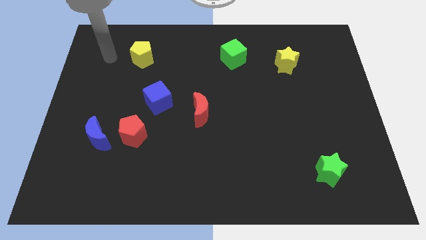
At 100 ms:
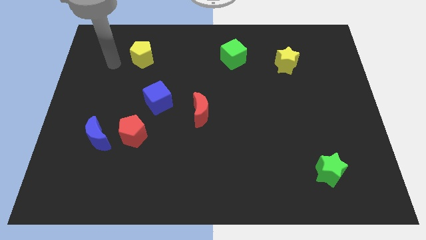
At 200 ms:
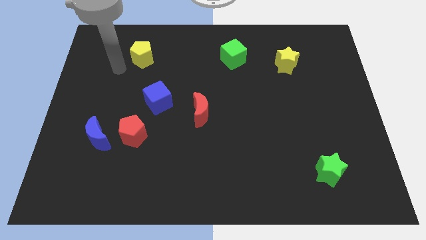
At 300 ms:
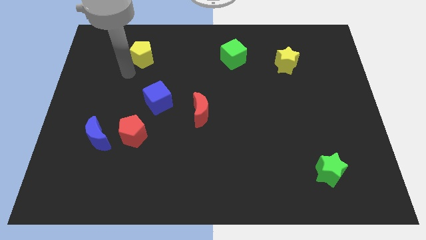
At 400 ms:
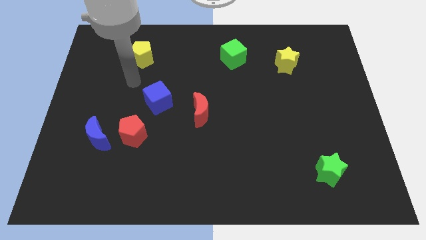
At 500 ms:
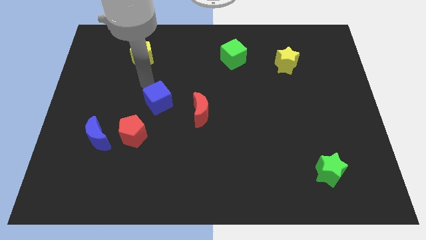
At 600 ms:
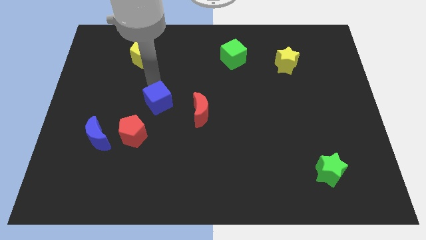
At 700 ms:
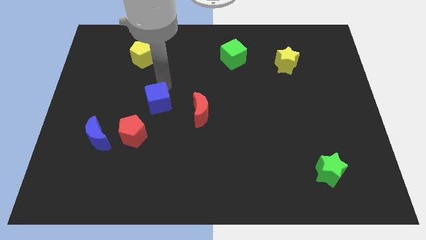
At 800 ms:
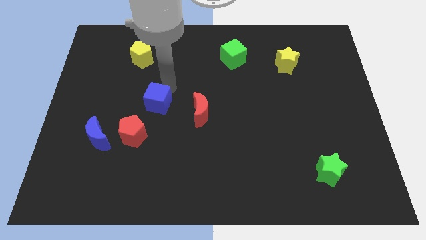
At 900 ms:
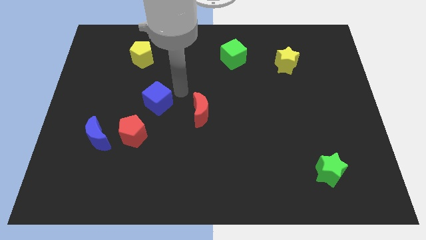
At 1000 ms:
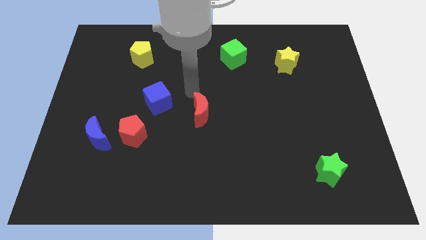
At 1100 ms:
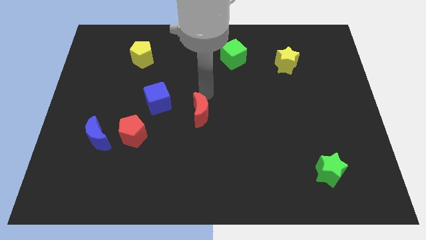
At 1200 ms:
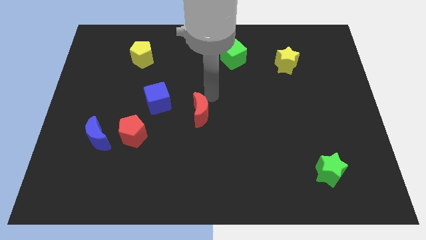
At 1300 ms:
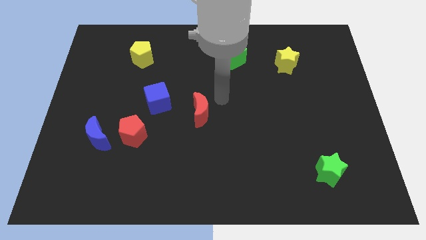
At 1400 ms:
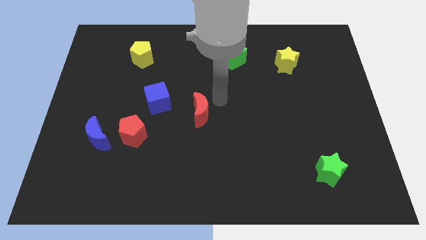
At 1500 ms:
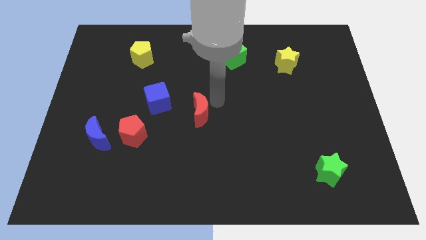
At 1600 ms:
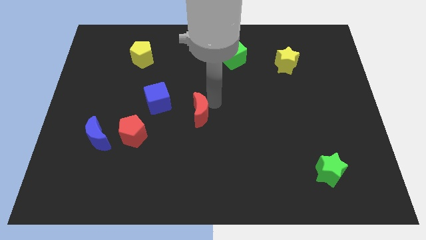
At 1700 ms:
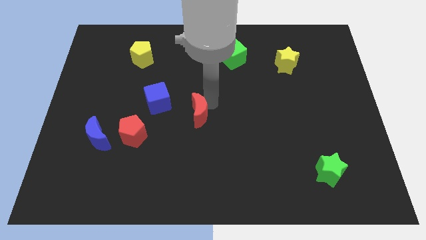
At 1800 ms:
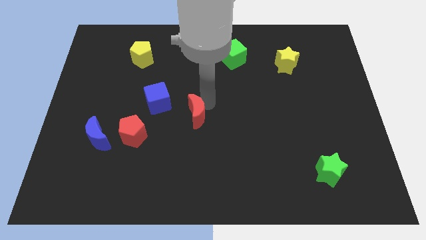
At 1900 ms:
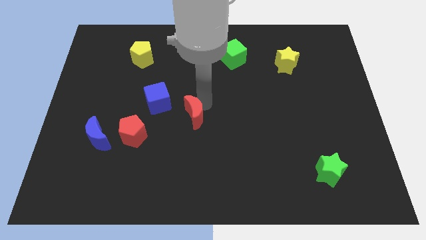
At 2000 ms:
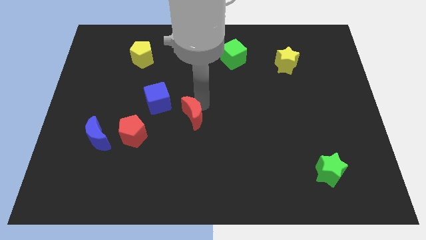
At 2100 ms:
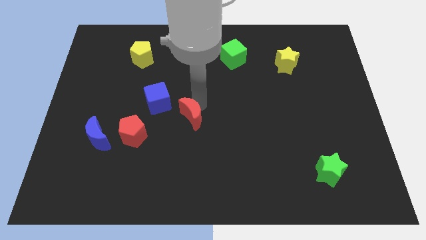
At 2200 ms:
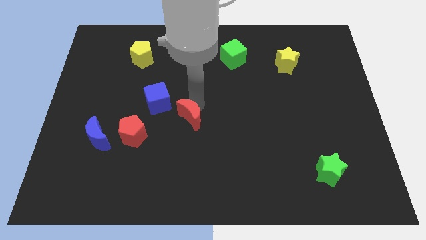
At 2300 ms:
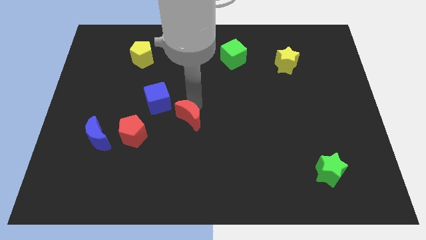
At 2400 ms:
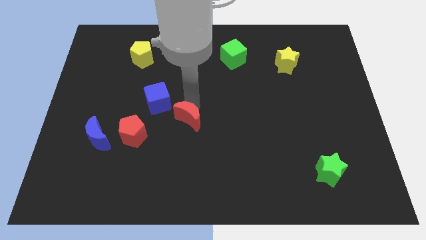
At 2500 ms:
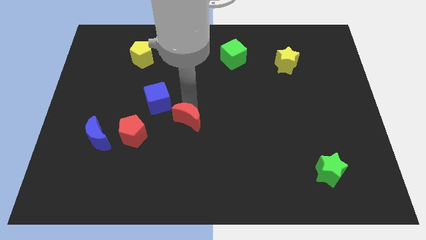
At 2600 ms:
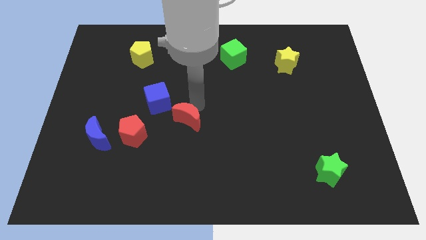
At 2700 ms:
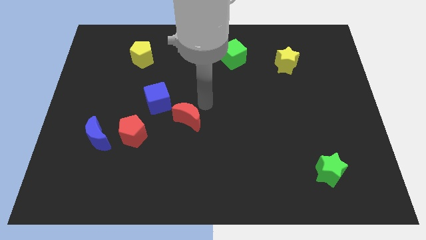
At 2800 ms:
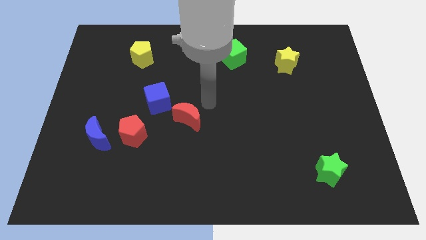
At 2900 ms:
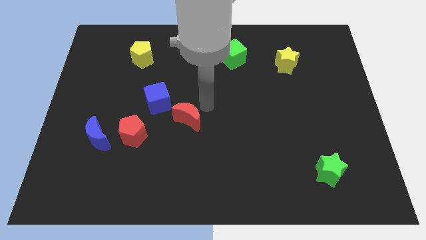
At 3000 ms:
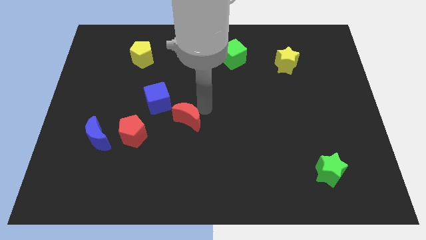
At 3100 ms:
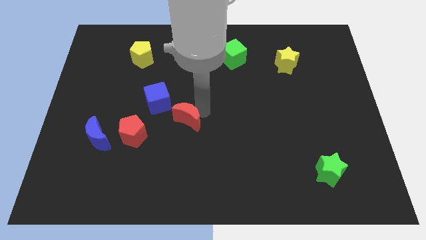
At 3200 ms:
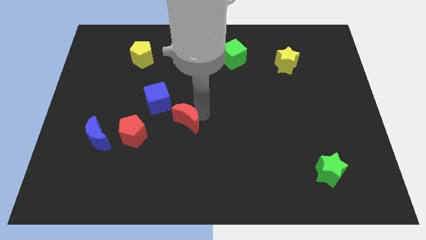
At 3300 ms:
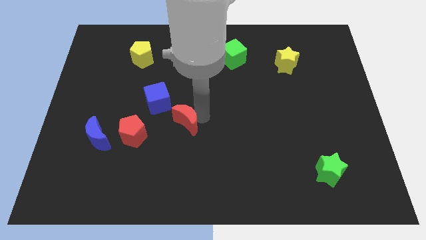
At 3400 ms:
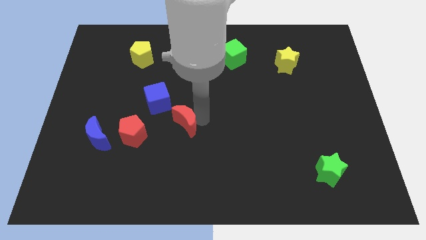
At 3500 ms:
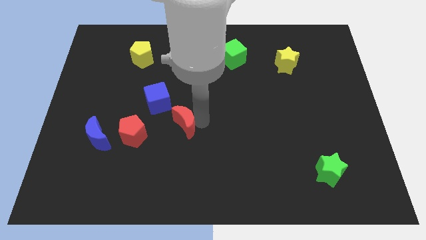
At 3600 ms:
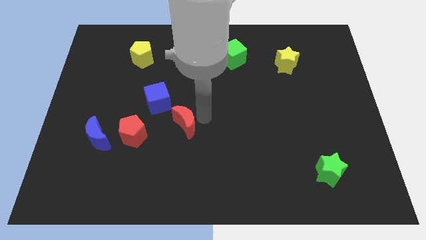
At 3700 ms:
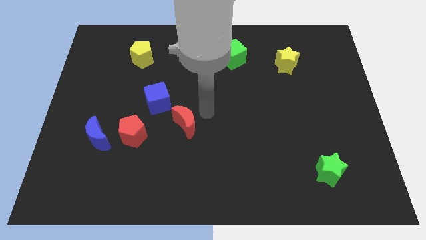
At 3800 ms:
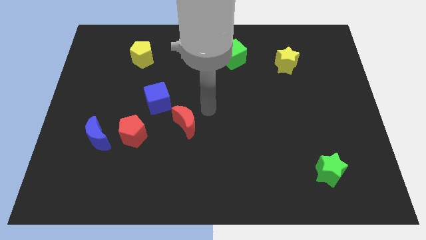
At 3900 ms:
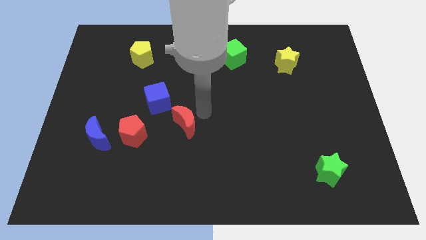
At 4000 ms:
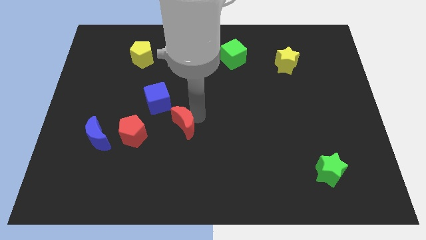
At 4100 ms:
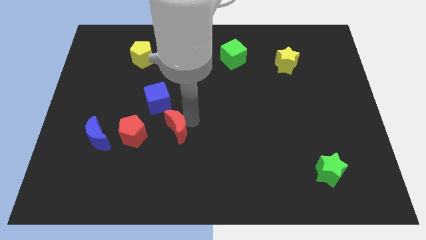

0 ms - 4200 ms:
move the red moon slightly down and left

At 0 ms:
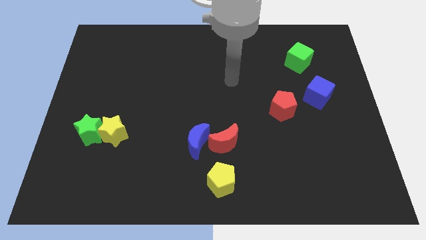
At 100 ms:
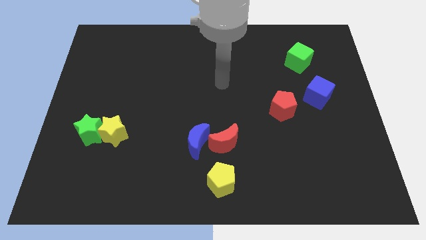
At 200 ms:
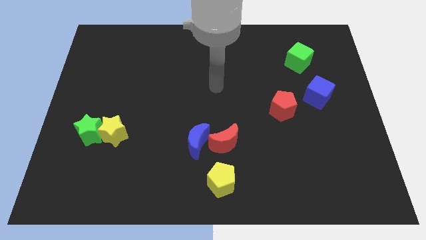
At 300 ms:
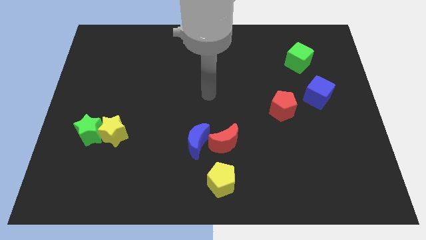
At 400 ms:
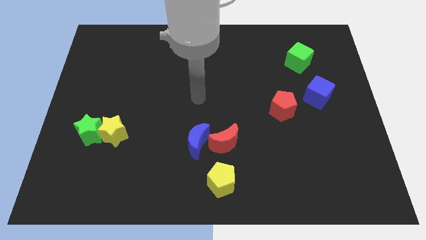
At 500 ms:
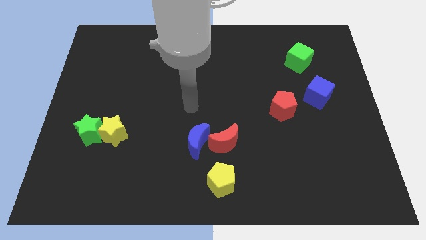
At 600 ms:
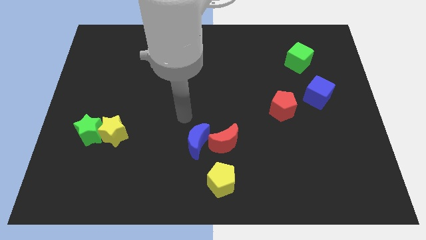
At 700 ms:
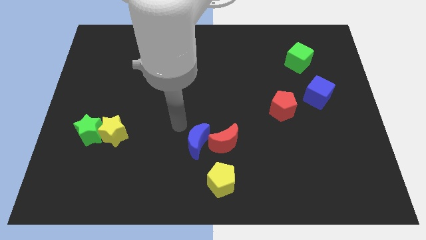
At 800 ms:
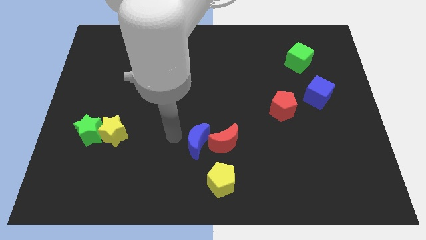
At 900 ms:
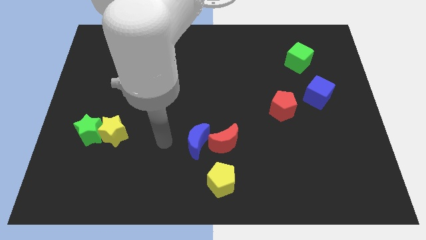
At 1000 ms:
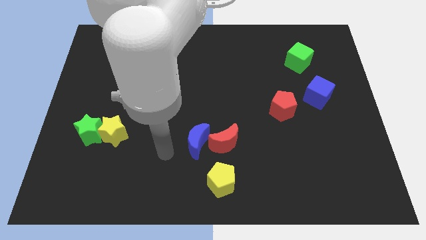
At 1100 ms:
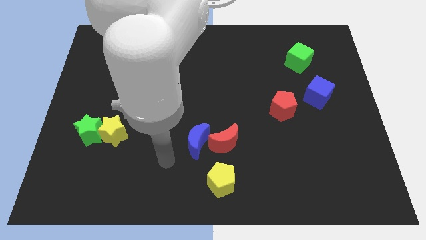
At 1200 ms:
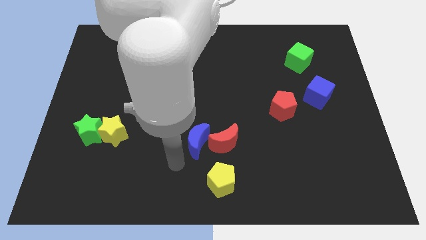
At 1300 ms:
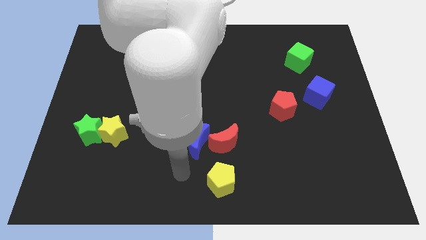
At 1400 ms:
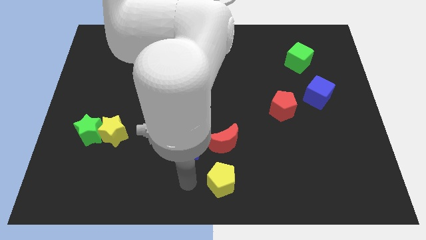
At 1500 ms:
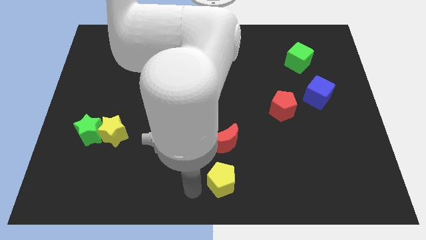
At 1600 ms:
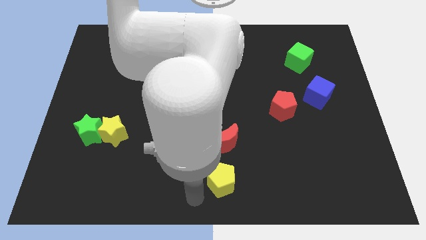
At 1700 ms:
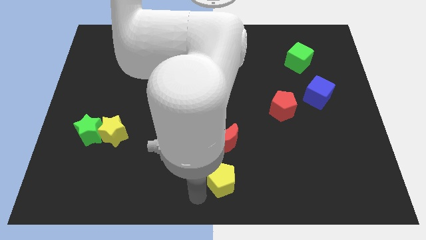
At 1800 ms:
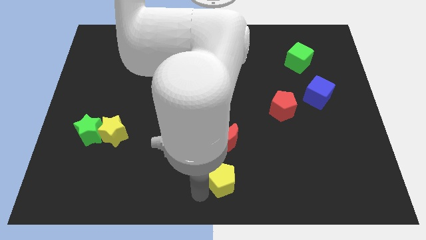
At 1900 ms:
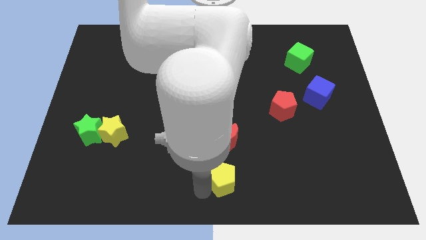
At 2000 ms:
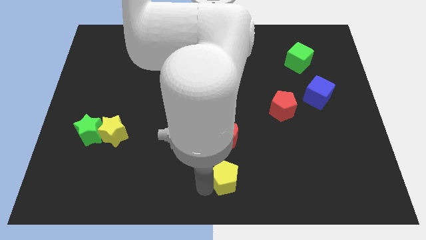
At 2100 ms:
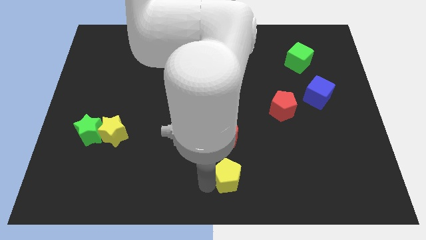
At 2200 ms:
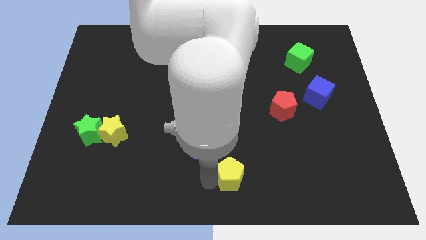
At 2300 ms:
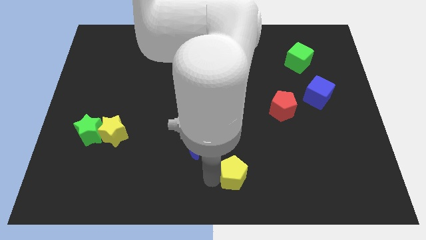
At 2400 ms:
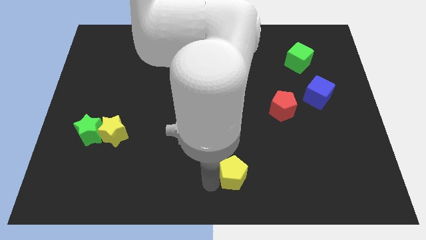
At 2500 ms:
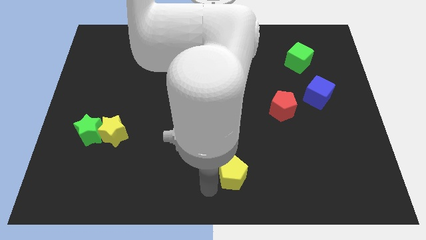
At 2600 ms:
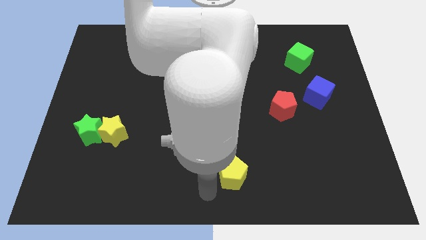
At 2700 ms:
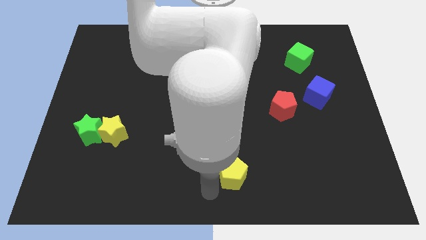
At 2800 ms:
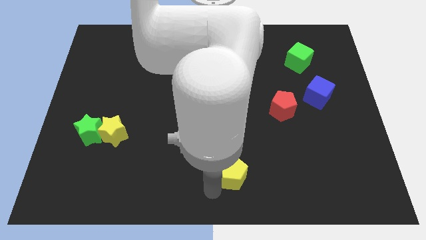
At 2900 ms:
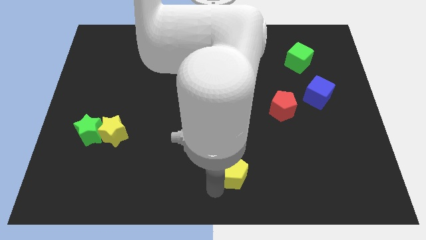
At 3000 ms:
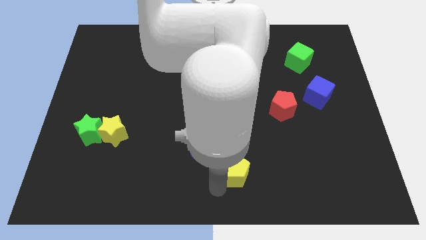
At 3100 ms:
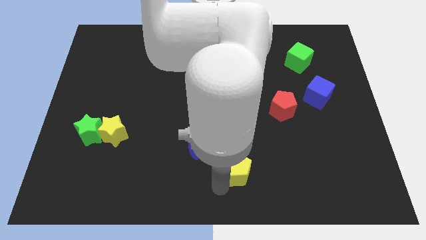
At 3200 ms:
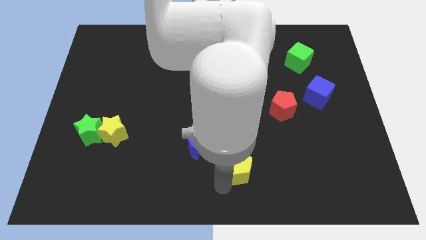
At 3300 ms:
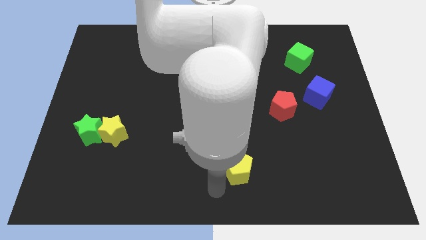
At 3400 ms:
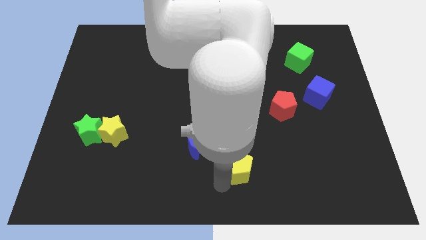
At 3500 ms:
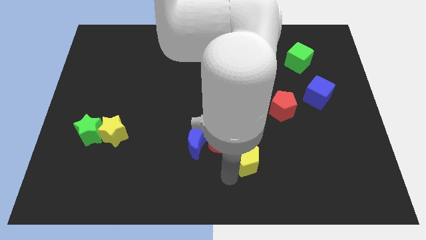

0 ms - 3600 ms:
slightly push the yellow pentagon up and right

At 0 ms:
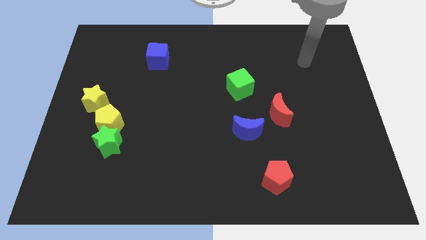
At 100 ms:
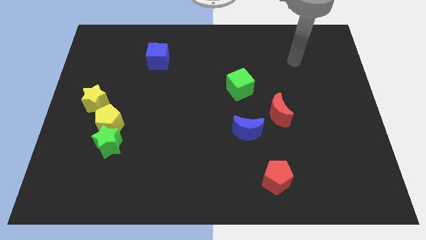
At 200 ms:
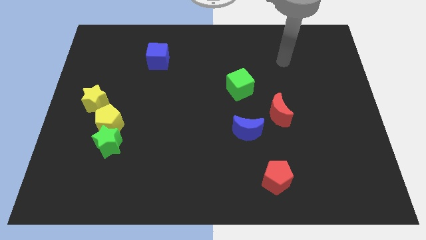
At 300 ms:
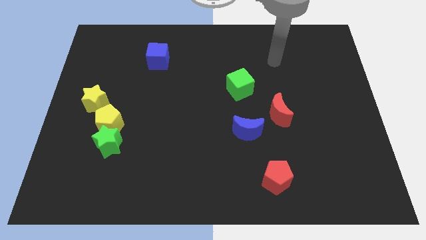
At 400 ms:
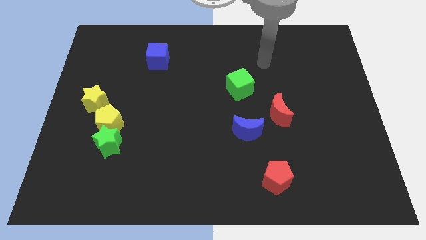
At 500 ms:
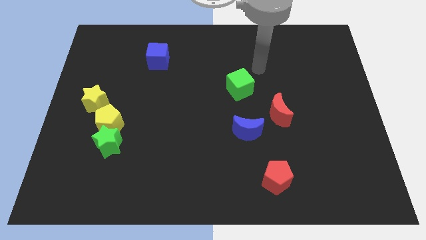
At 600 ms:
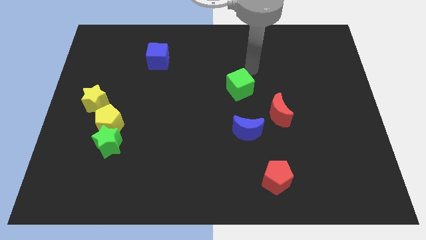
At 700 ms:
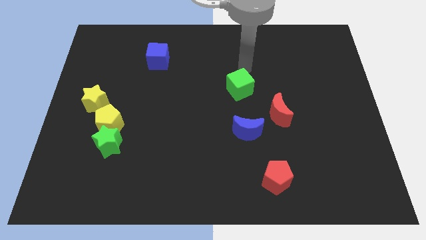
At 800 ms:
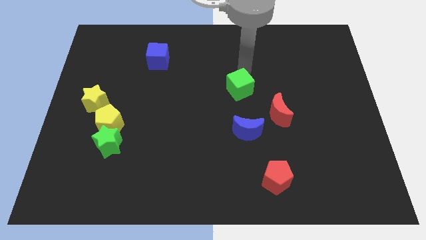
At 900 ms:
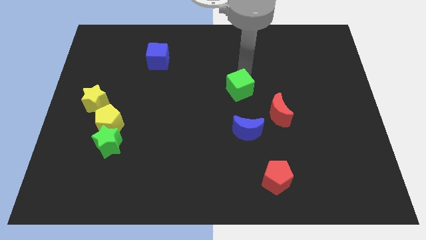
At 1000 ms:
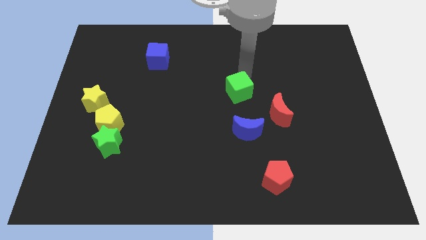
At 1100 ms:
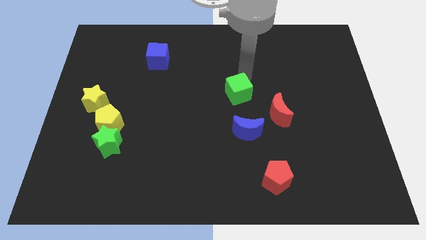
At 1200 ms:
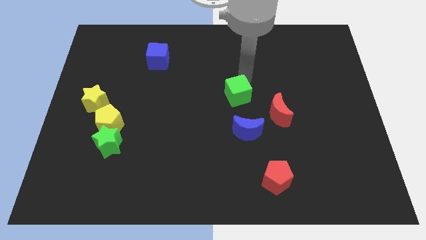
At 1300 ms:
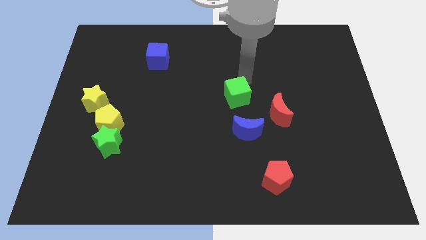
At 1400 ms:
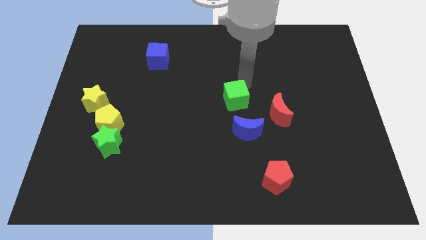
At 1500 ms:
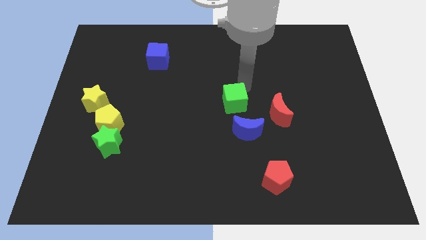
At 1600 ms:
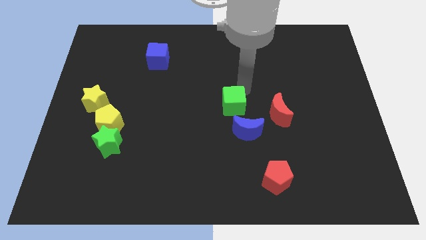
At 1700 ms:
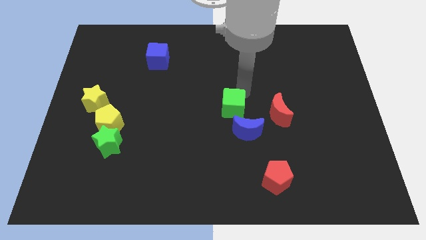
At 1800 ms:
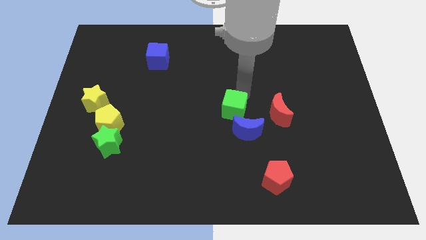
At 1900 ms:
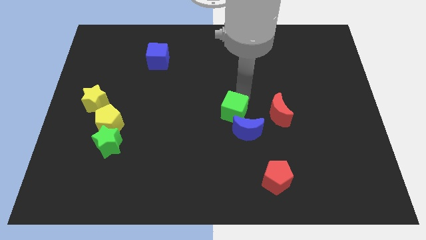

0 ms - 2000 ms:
move the green cube slightly downwards
